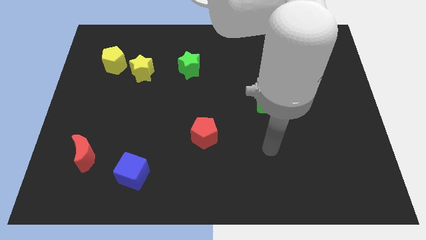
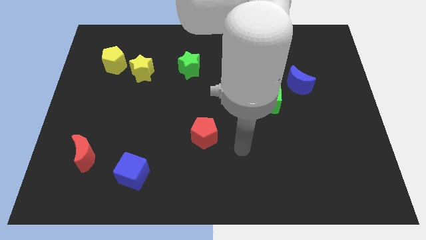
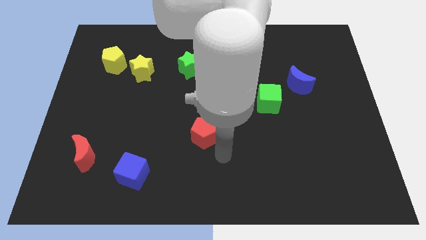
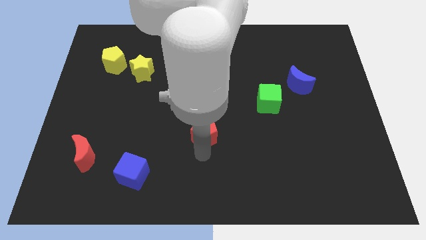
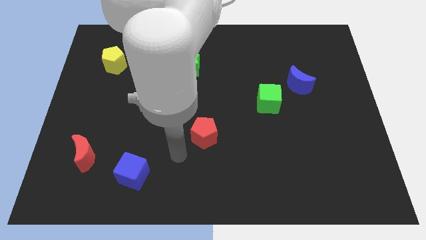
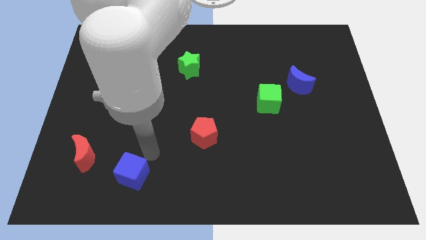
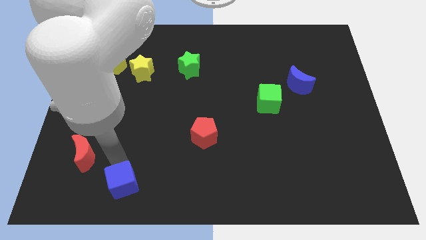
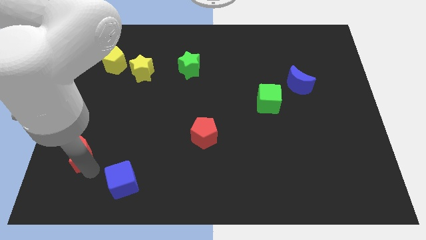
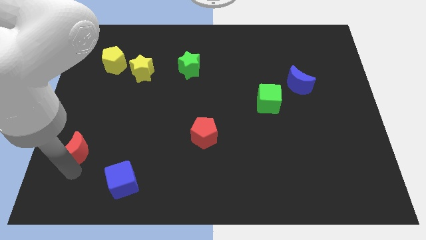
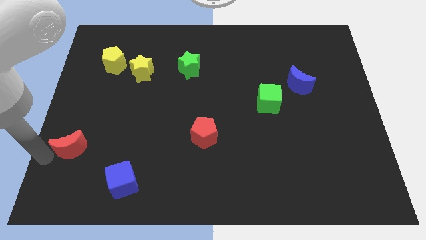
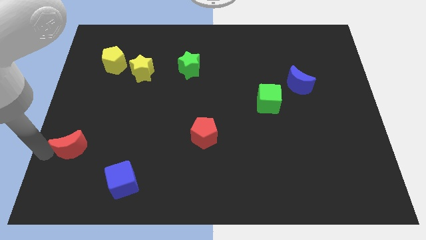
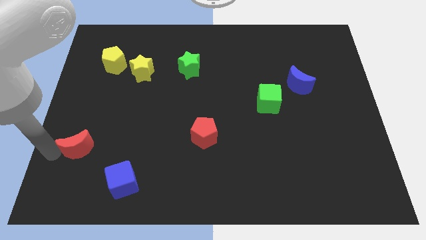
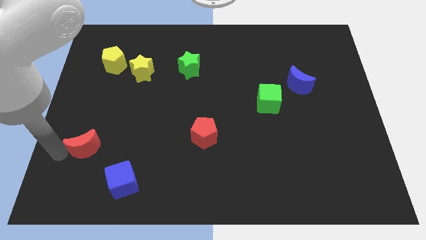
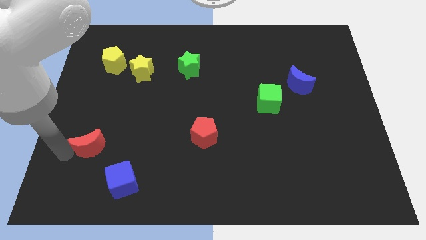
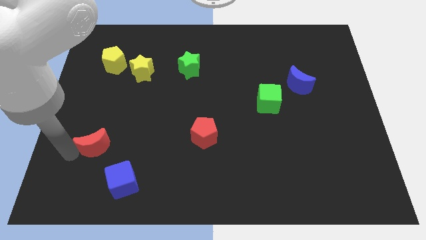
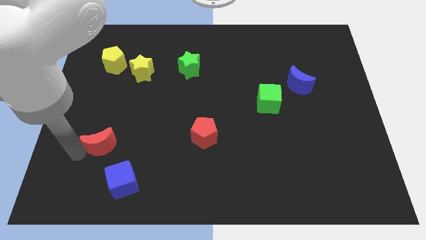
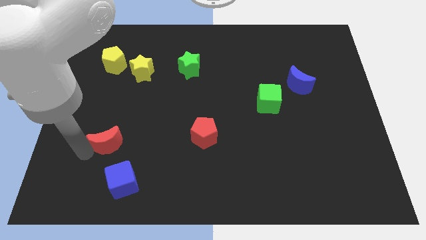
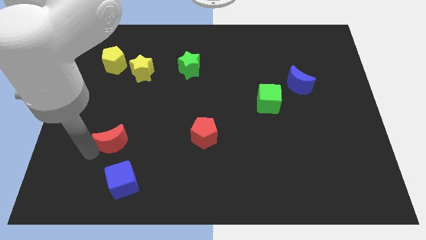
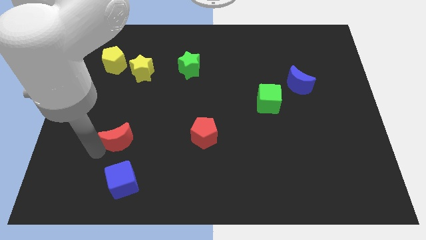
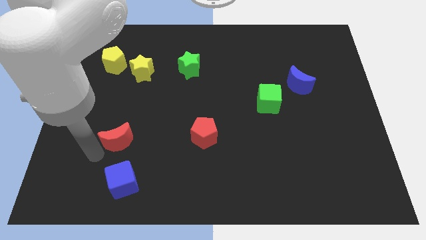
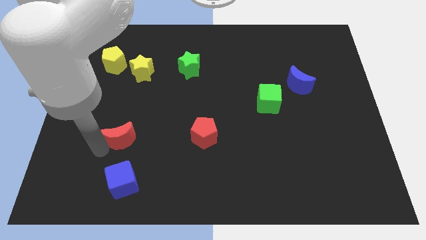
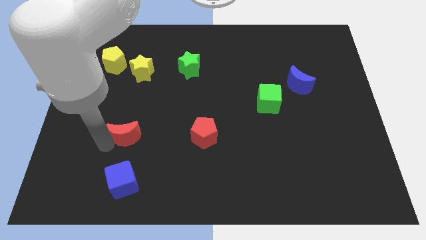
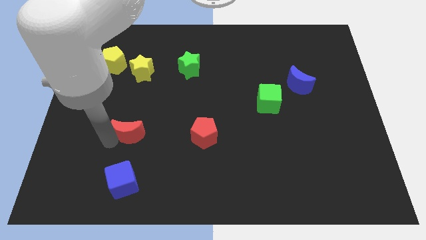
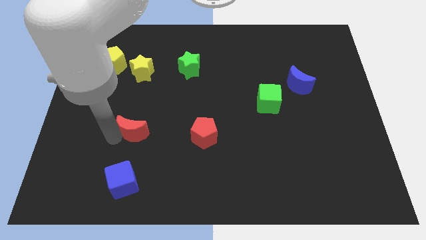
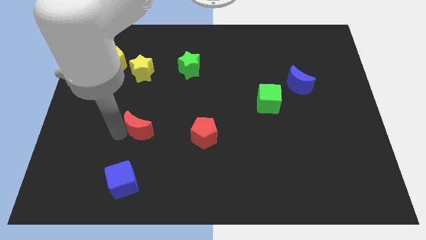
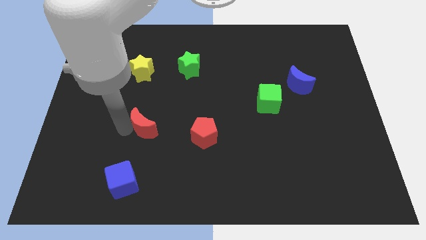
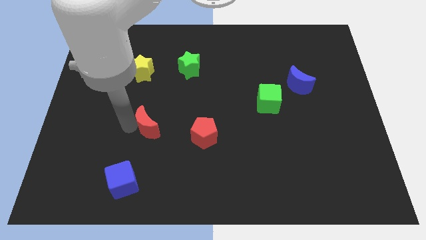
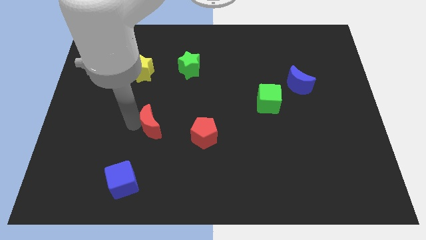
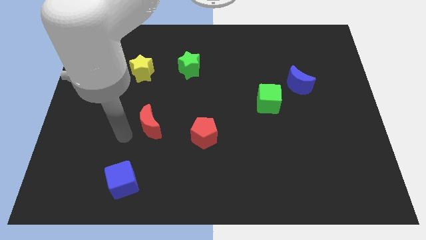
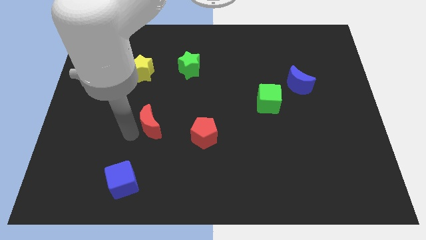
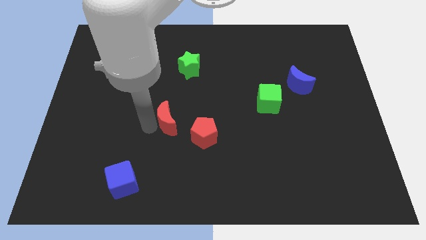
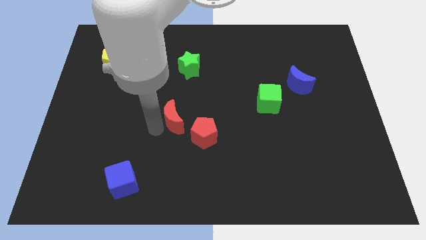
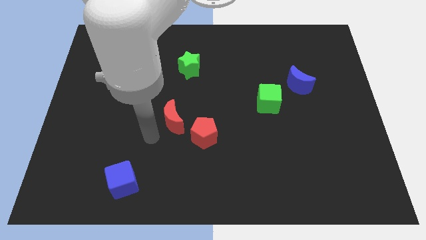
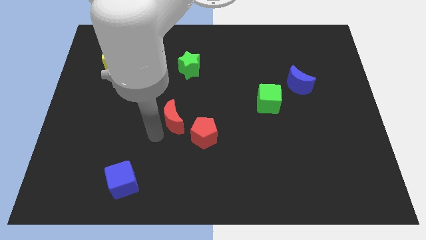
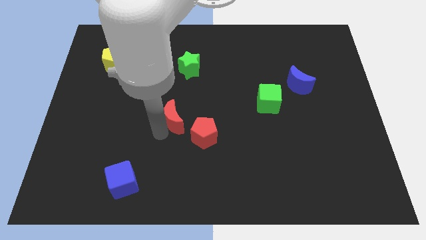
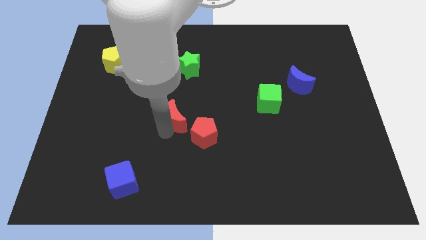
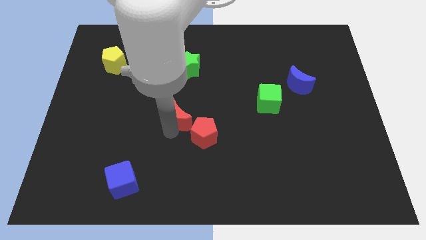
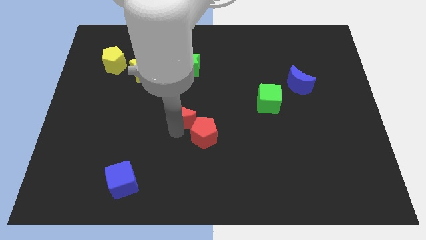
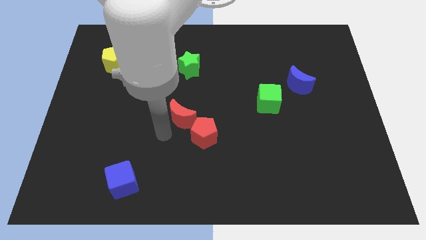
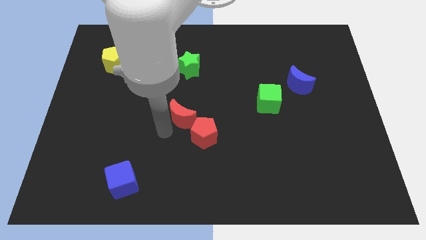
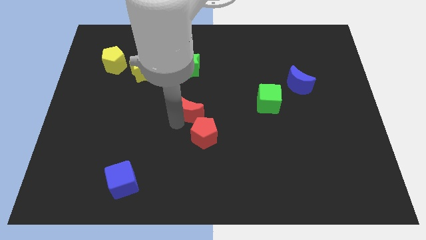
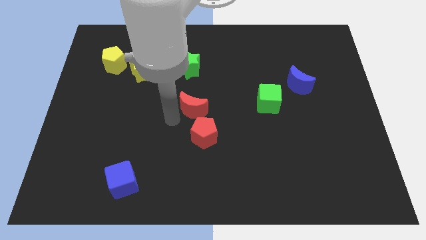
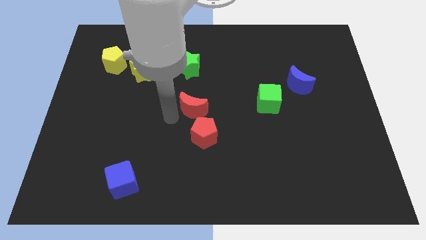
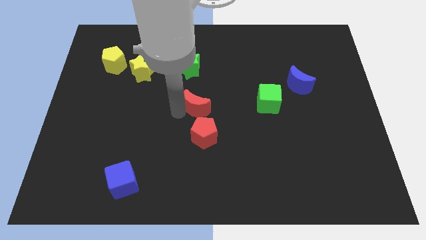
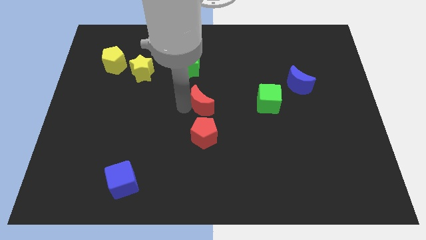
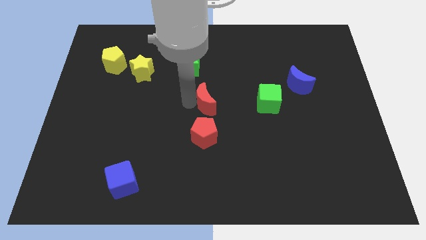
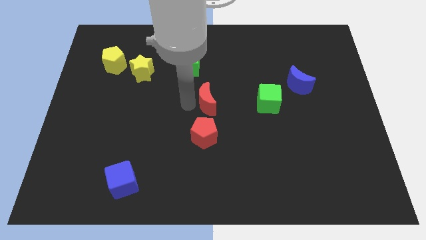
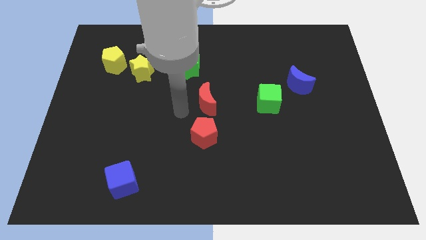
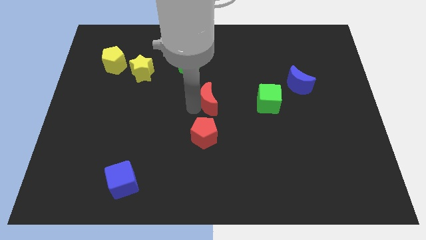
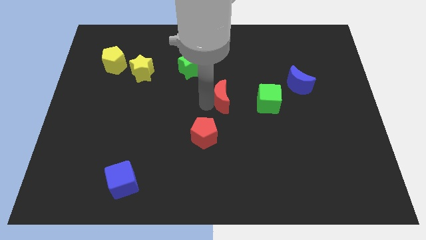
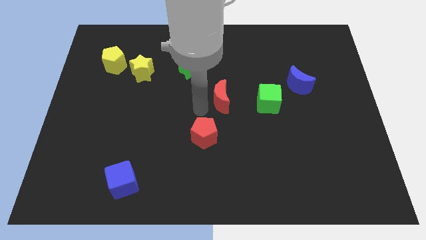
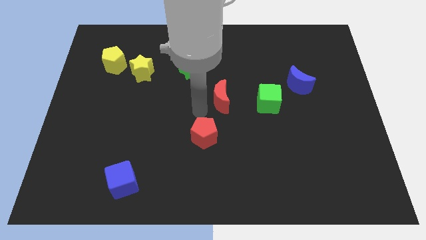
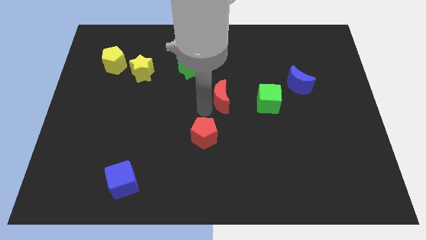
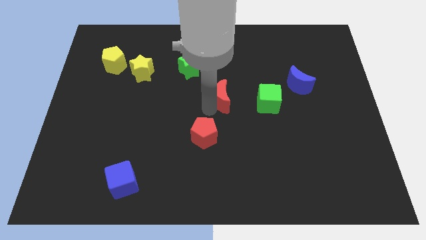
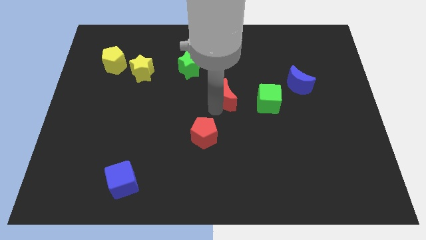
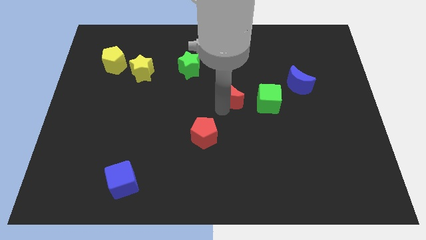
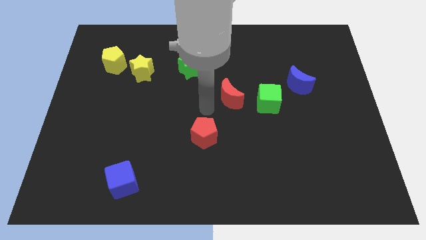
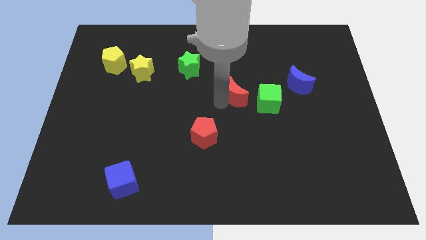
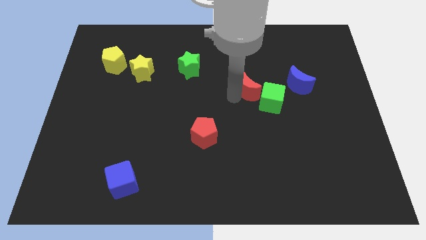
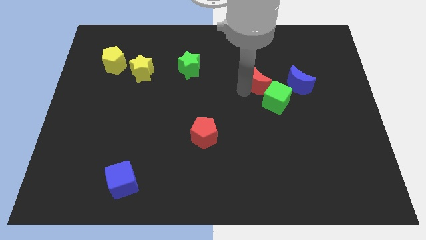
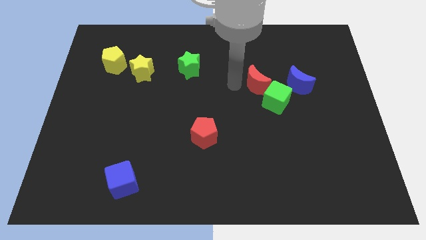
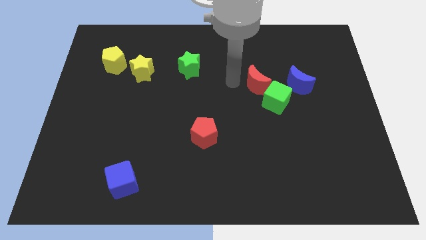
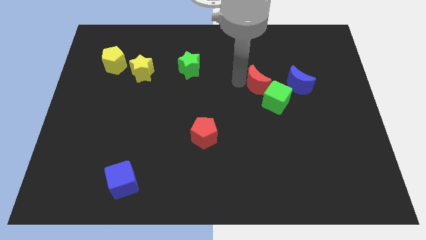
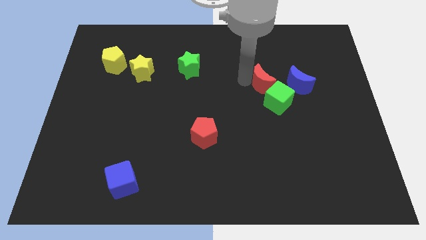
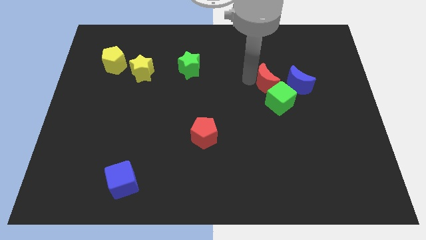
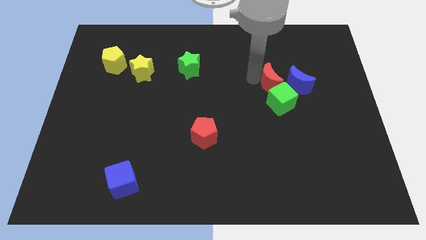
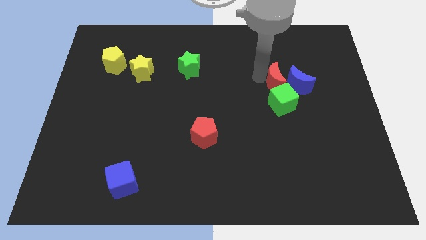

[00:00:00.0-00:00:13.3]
push the red moon close to the blue moon

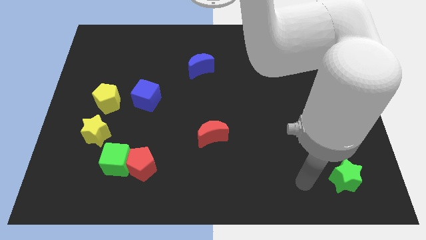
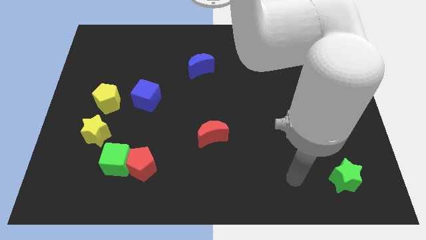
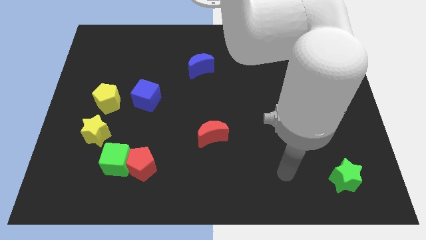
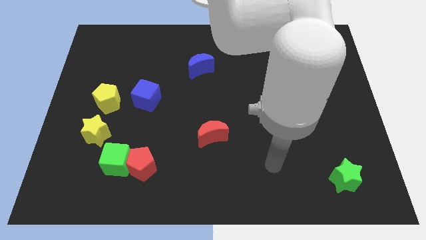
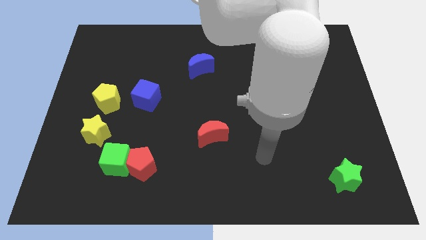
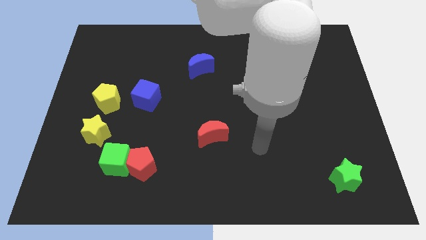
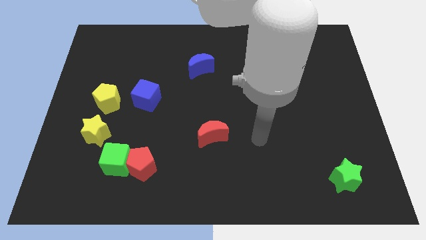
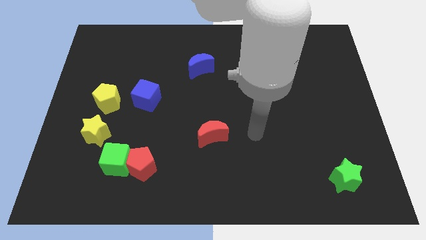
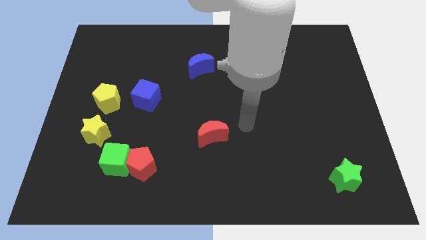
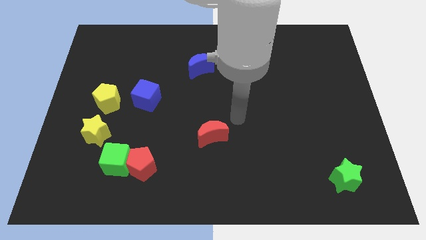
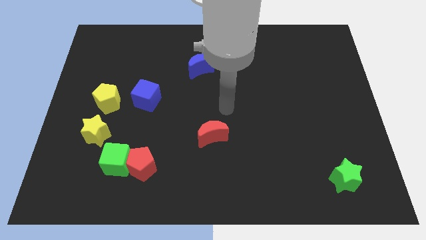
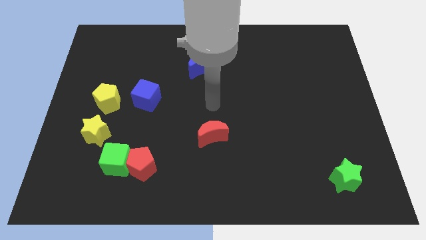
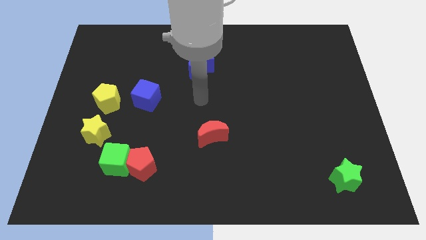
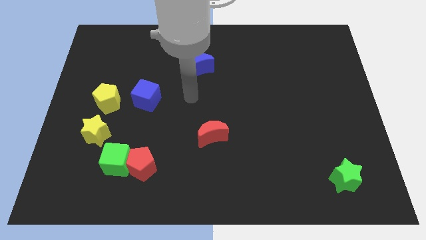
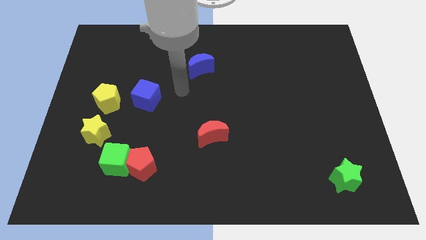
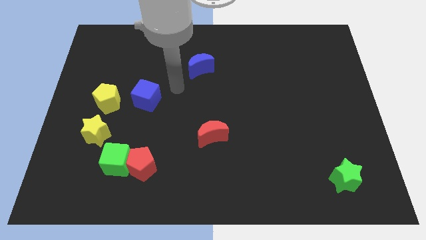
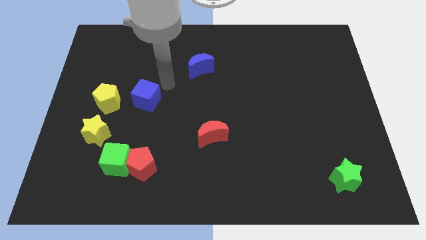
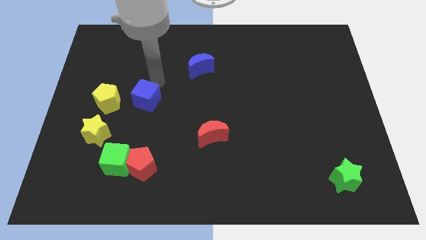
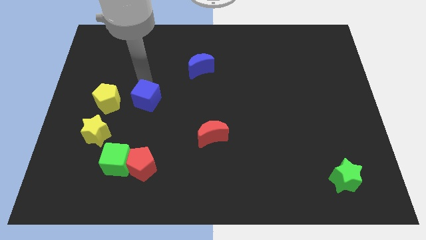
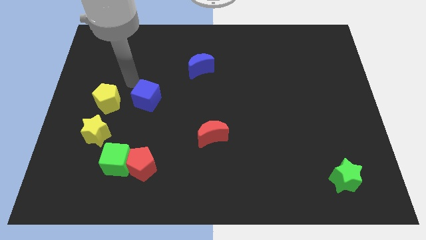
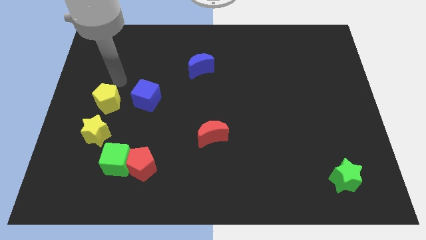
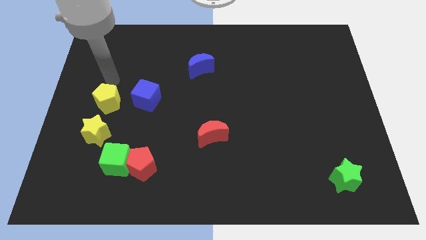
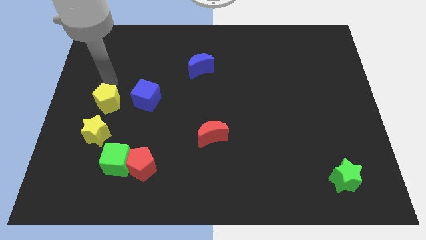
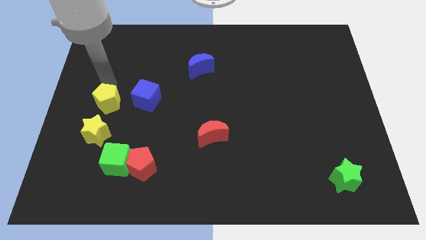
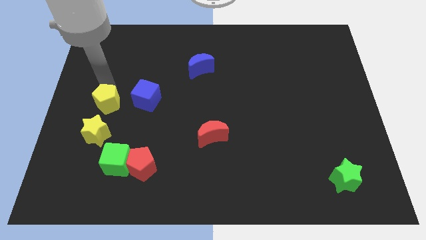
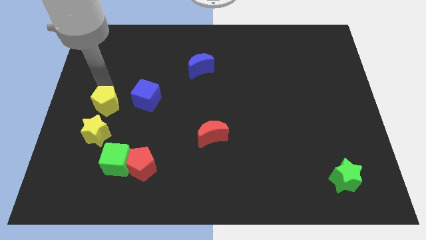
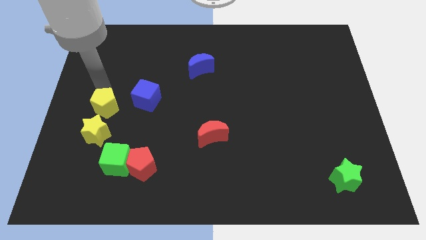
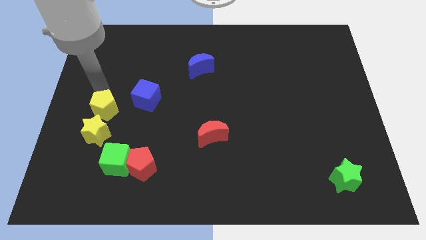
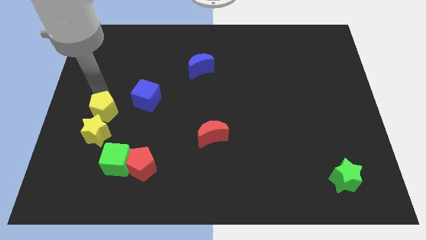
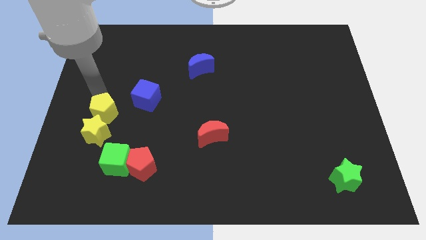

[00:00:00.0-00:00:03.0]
slide the yellow pentagon to the yellow star
